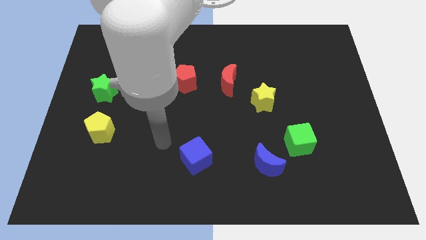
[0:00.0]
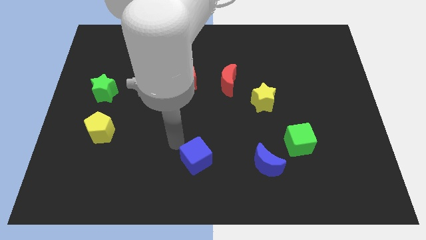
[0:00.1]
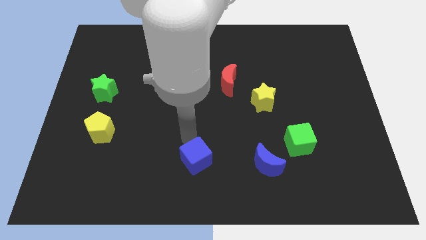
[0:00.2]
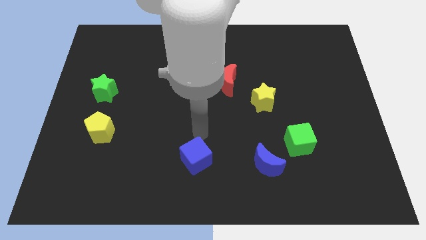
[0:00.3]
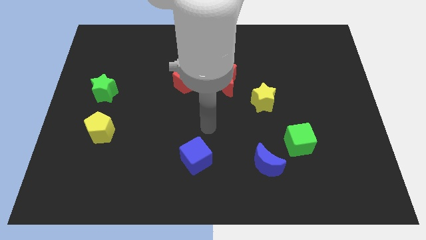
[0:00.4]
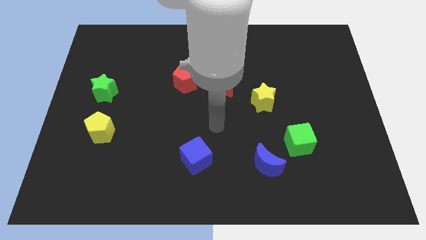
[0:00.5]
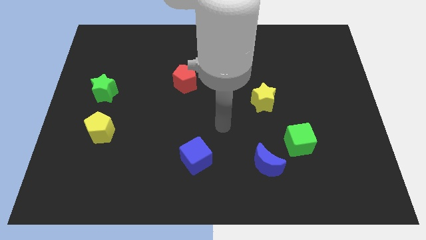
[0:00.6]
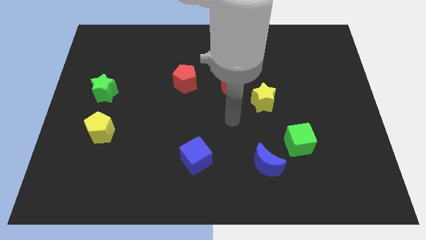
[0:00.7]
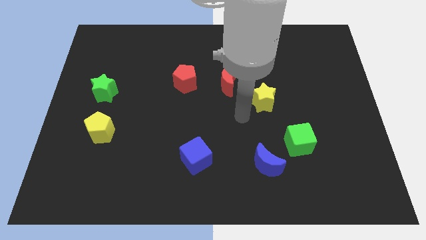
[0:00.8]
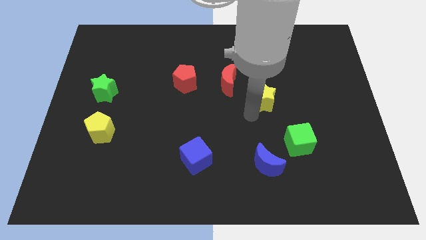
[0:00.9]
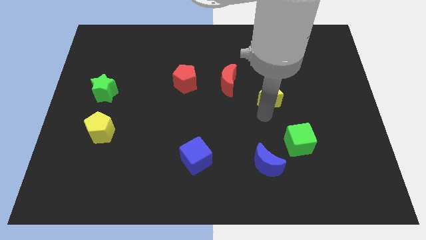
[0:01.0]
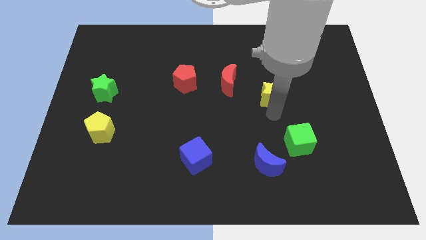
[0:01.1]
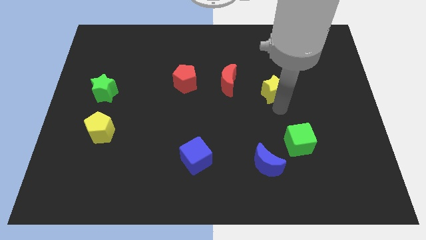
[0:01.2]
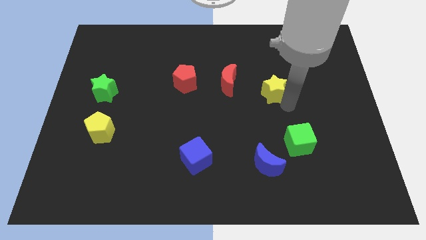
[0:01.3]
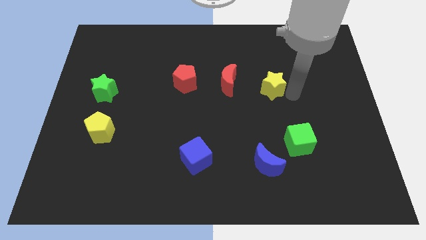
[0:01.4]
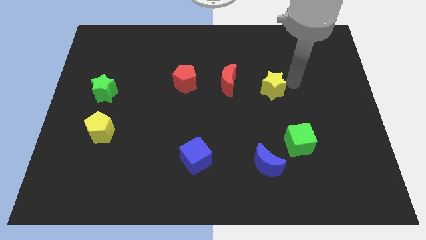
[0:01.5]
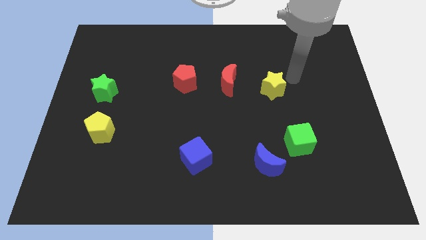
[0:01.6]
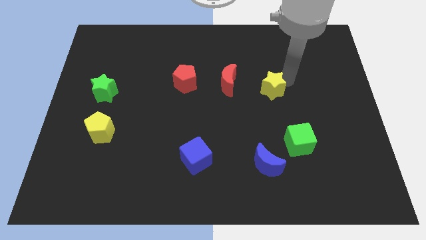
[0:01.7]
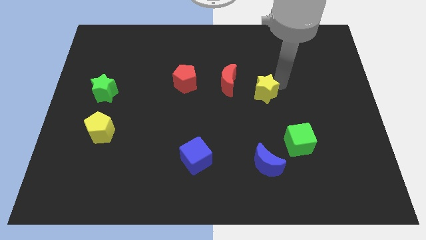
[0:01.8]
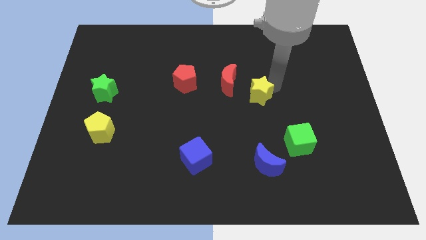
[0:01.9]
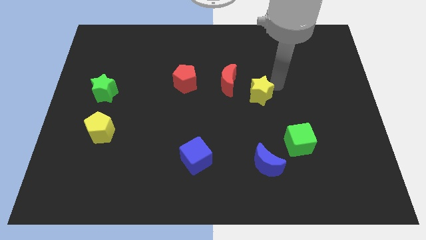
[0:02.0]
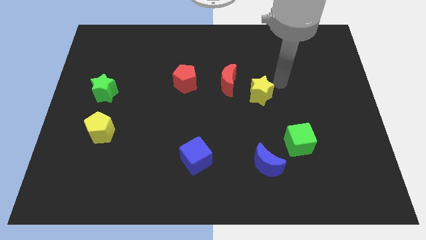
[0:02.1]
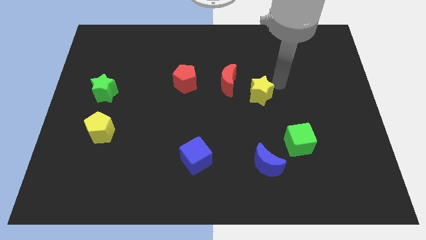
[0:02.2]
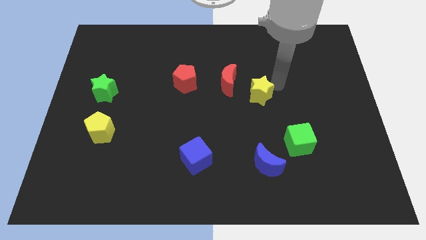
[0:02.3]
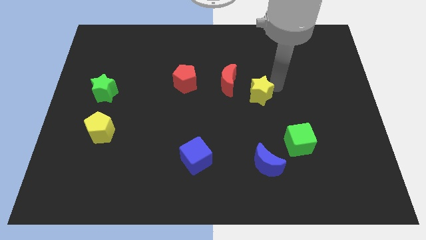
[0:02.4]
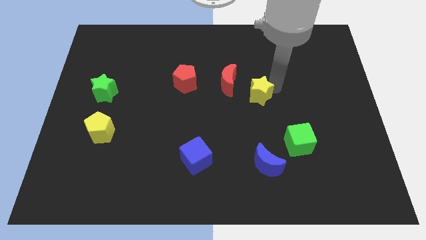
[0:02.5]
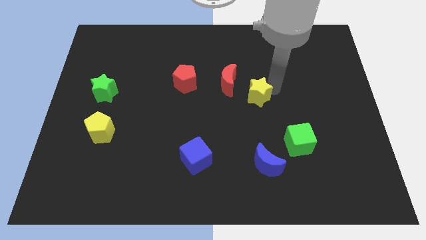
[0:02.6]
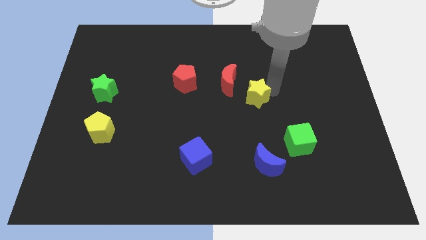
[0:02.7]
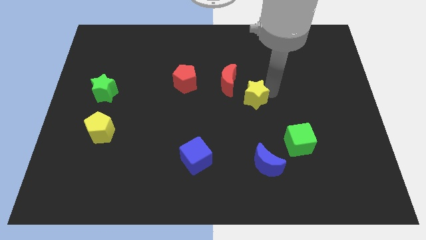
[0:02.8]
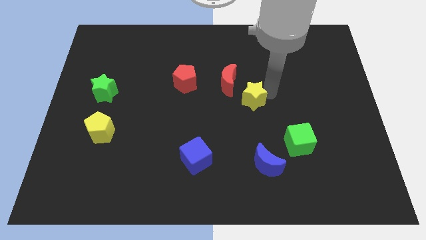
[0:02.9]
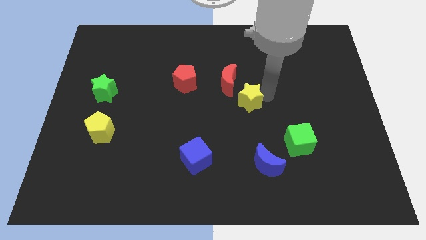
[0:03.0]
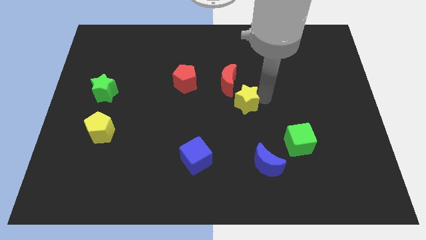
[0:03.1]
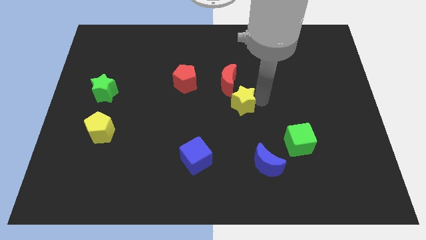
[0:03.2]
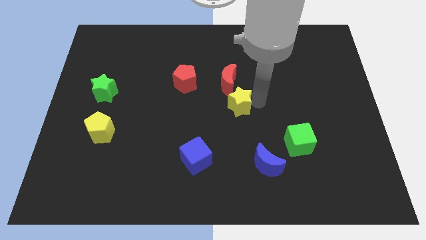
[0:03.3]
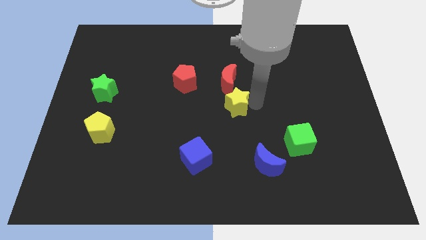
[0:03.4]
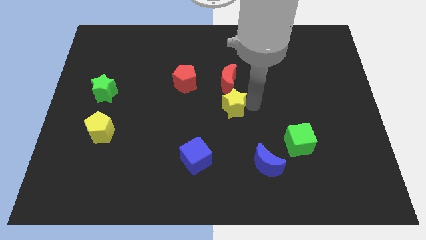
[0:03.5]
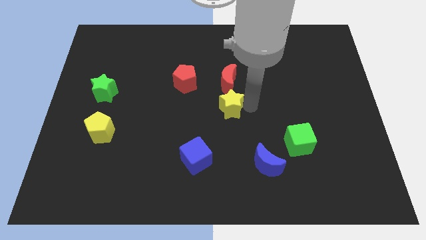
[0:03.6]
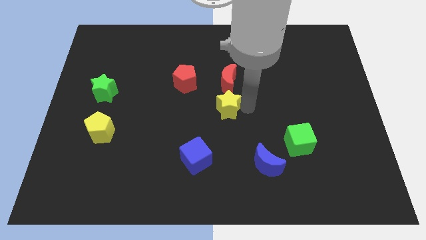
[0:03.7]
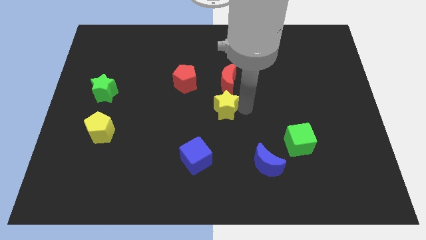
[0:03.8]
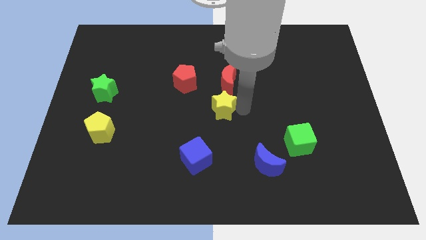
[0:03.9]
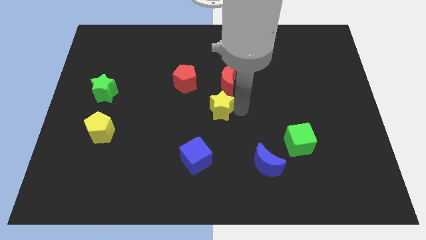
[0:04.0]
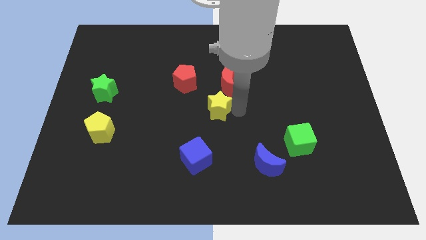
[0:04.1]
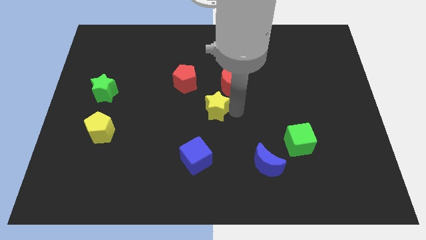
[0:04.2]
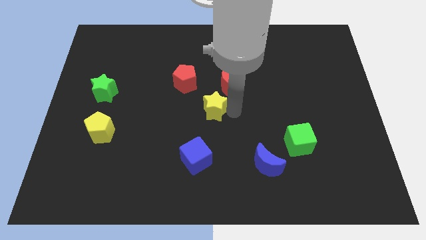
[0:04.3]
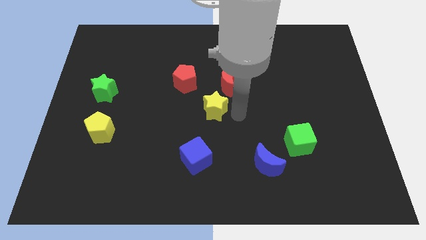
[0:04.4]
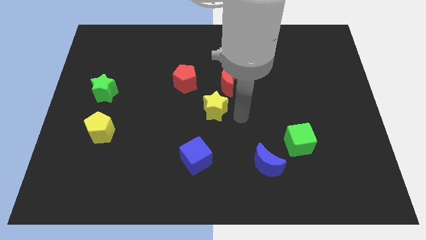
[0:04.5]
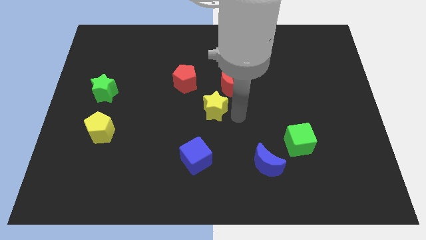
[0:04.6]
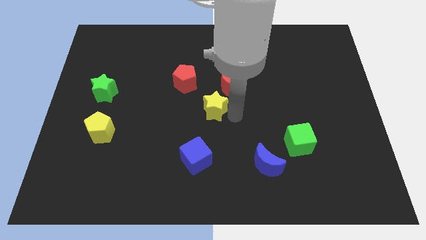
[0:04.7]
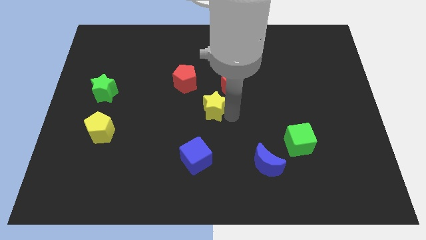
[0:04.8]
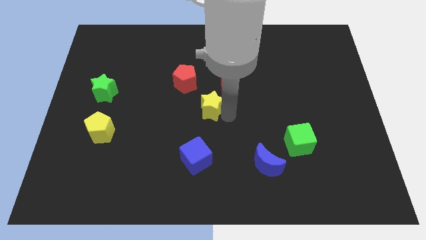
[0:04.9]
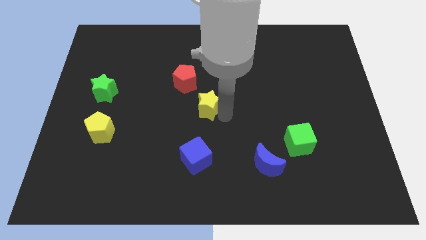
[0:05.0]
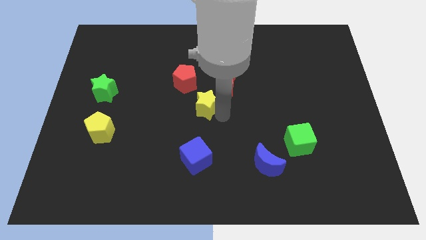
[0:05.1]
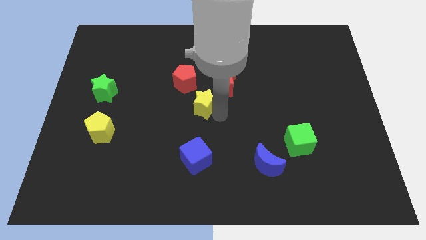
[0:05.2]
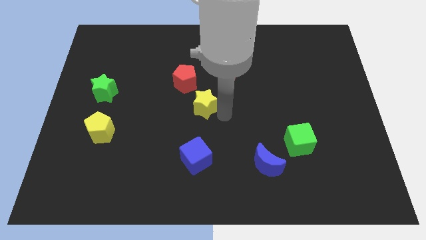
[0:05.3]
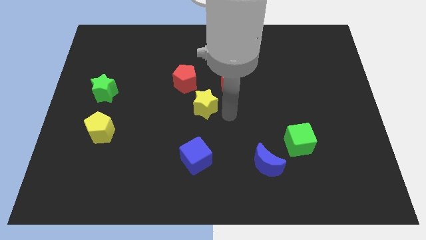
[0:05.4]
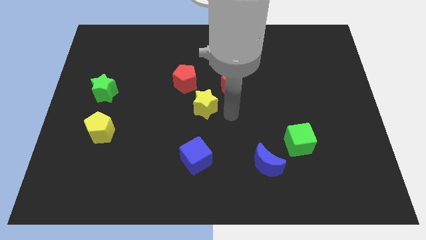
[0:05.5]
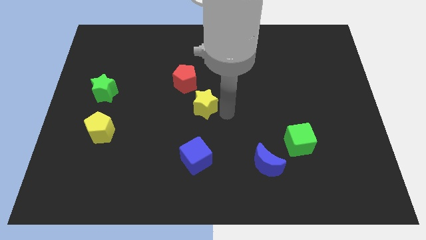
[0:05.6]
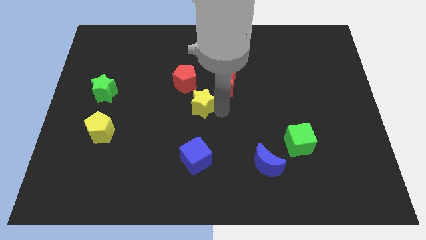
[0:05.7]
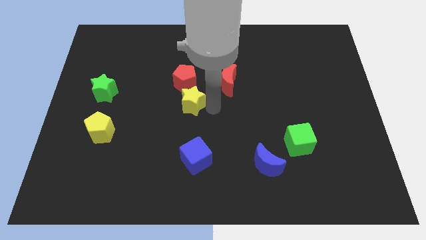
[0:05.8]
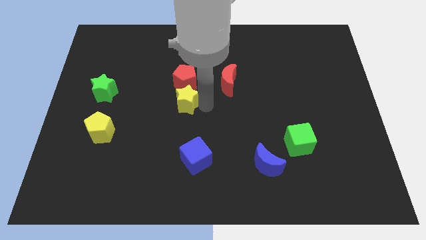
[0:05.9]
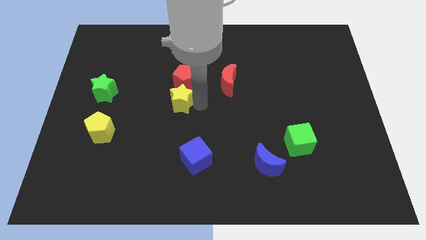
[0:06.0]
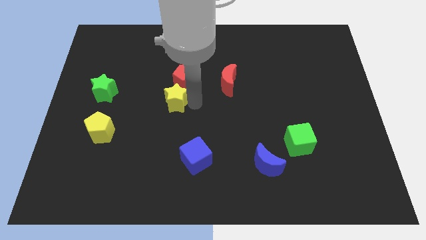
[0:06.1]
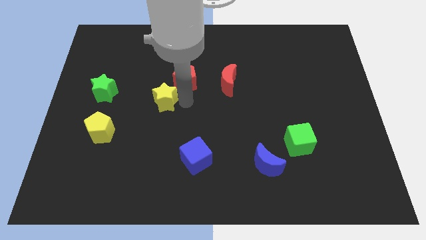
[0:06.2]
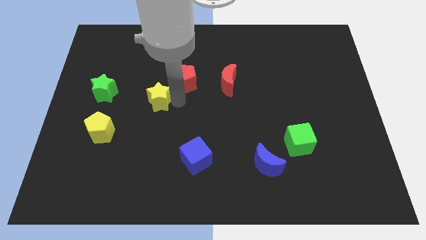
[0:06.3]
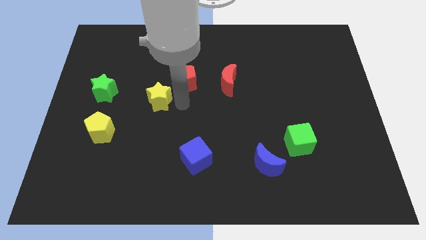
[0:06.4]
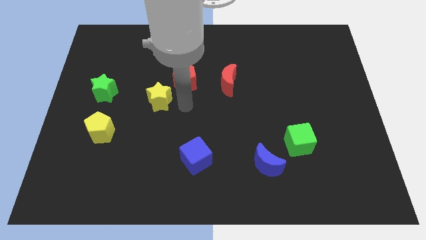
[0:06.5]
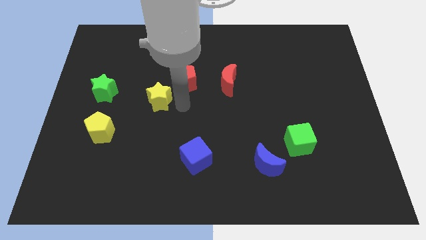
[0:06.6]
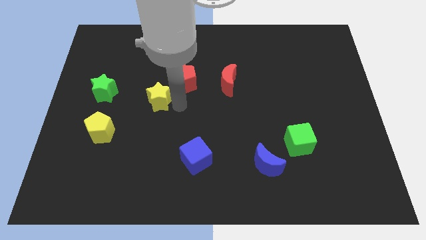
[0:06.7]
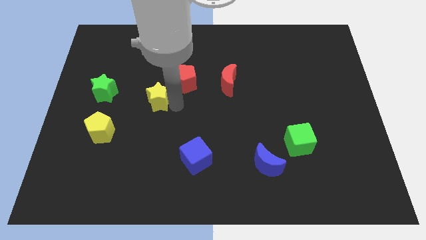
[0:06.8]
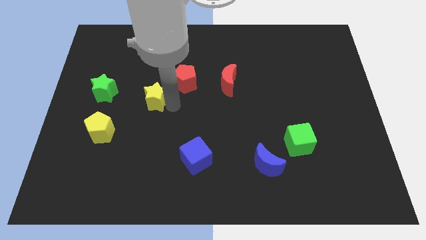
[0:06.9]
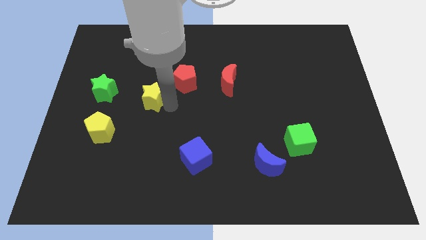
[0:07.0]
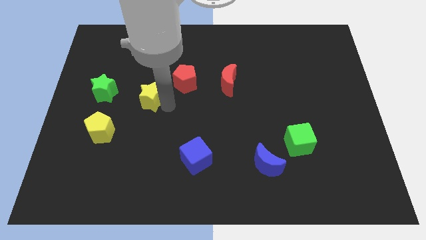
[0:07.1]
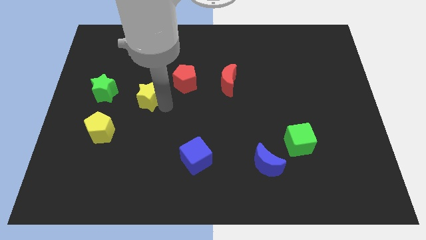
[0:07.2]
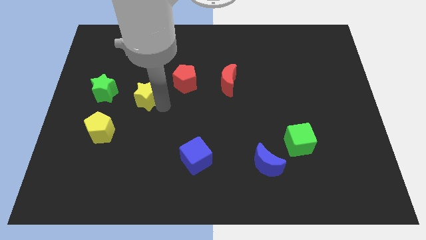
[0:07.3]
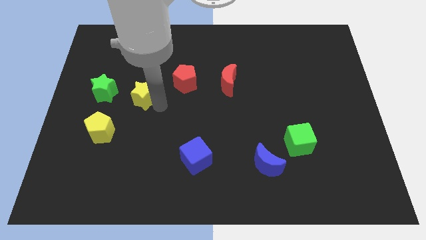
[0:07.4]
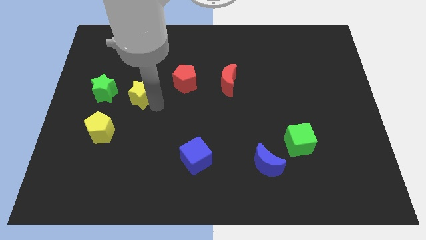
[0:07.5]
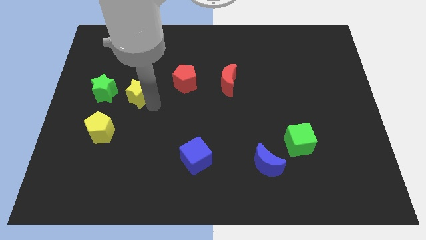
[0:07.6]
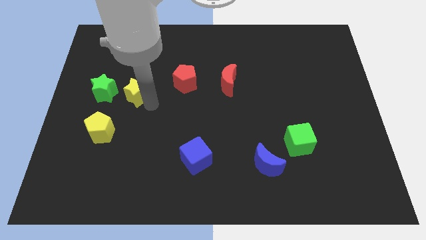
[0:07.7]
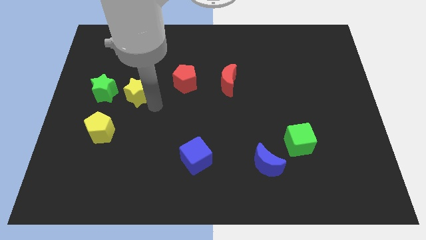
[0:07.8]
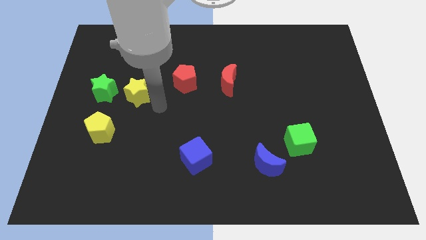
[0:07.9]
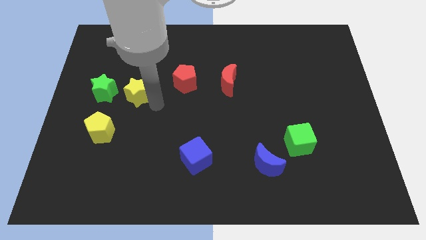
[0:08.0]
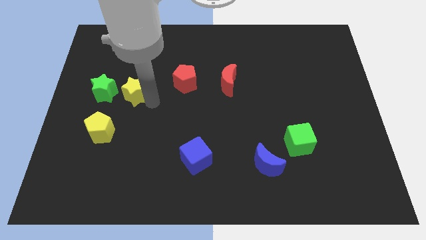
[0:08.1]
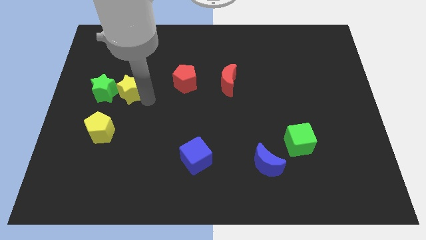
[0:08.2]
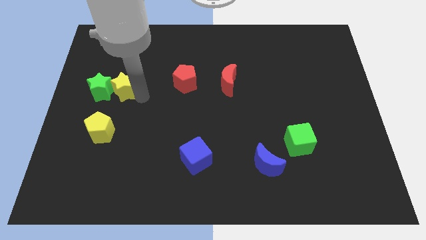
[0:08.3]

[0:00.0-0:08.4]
slide the yellow star to the top of the yellow pentagon
